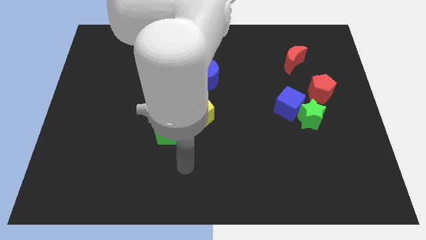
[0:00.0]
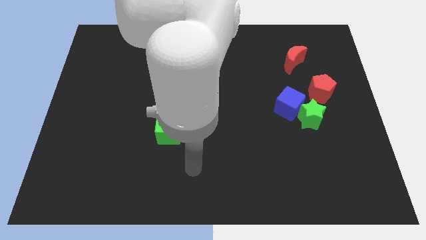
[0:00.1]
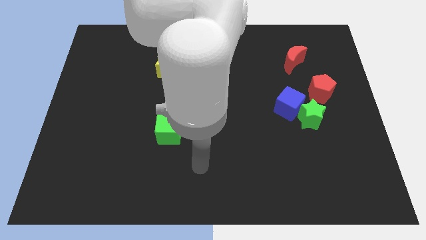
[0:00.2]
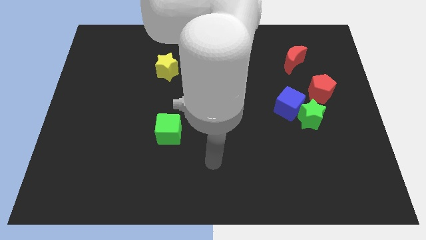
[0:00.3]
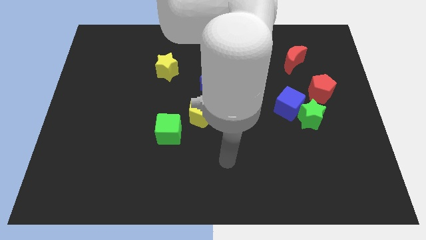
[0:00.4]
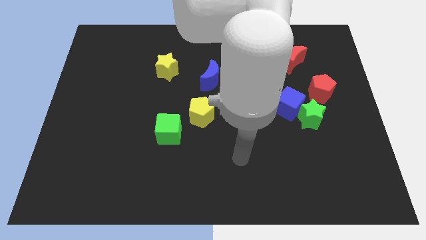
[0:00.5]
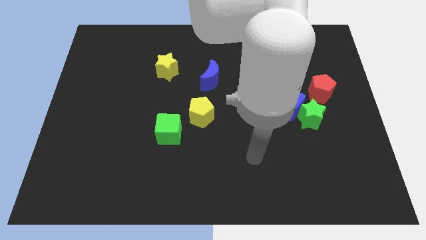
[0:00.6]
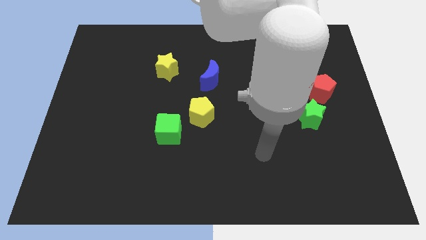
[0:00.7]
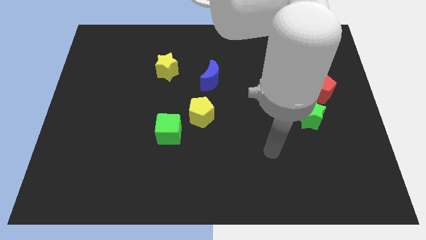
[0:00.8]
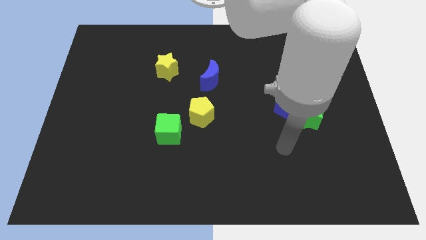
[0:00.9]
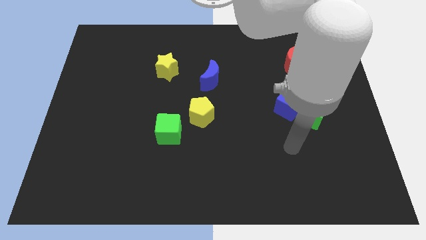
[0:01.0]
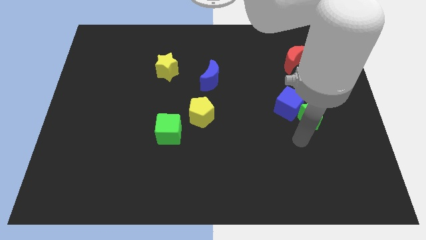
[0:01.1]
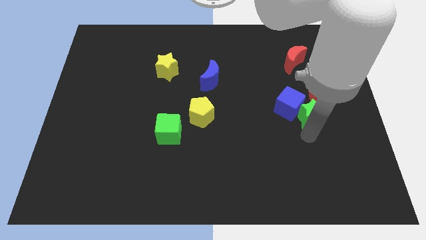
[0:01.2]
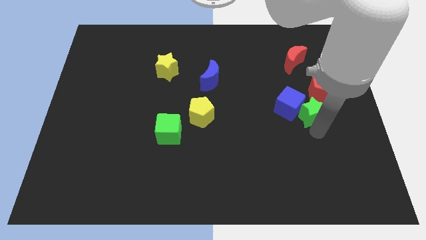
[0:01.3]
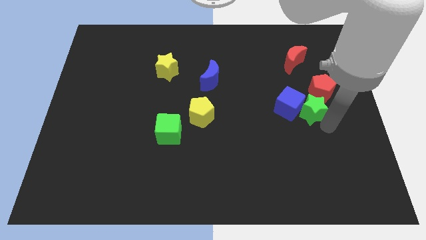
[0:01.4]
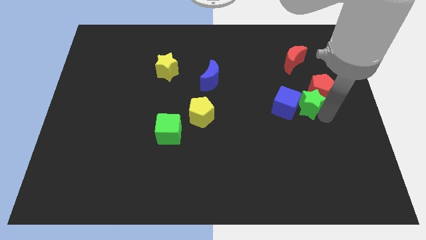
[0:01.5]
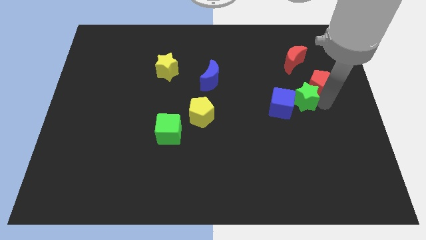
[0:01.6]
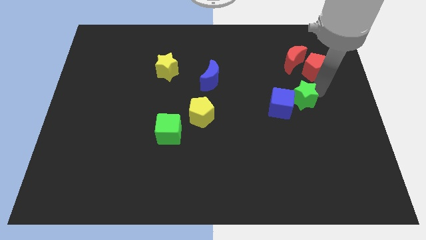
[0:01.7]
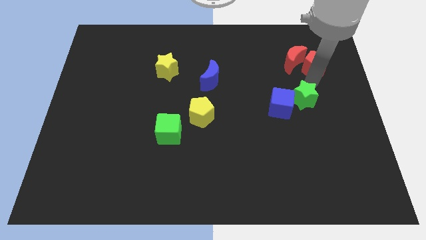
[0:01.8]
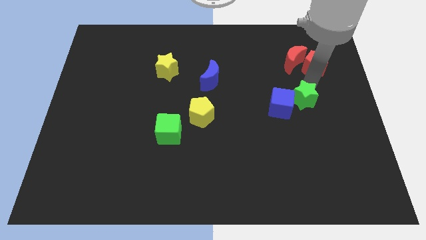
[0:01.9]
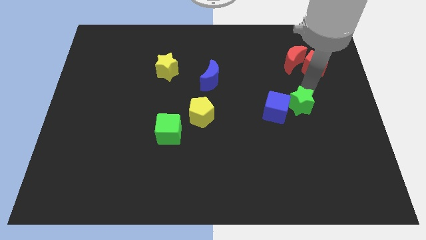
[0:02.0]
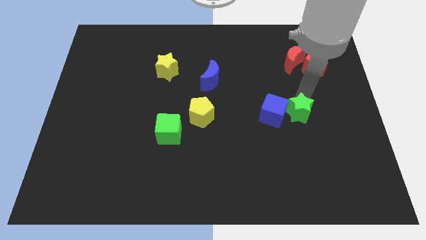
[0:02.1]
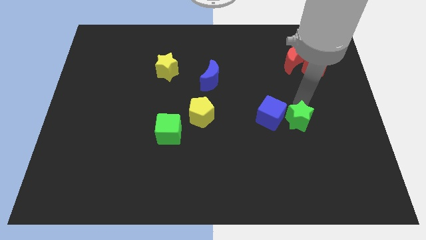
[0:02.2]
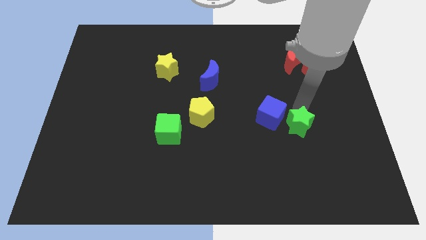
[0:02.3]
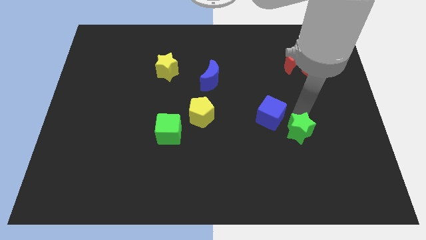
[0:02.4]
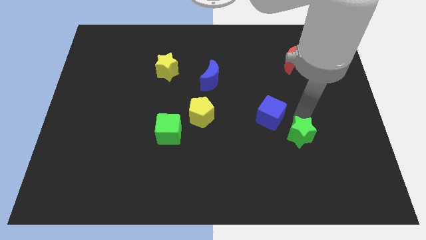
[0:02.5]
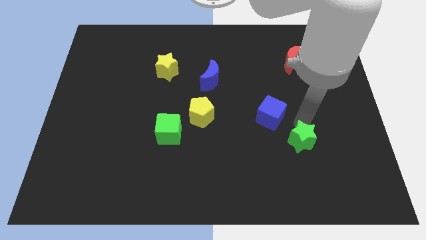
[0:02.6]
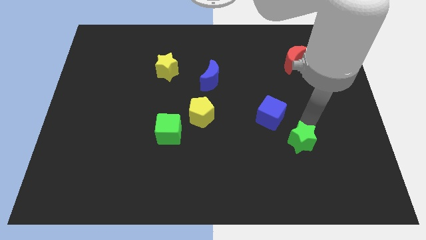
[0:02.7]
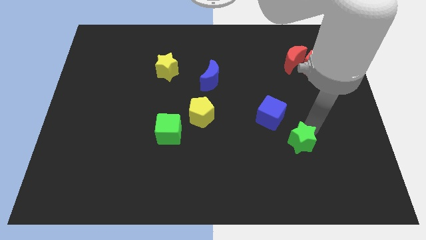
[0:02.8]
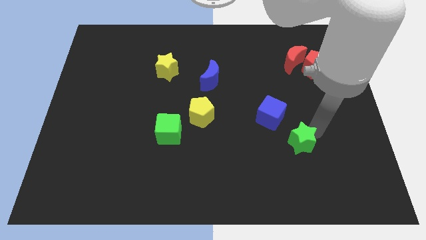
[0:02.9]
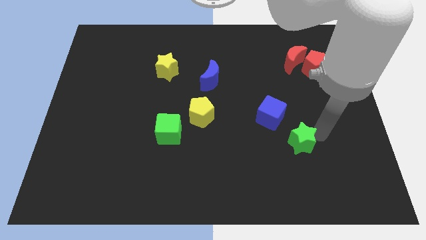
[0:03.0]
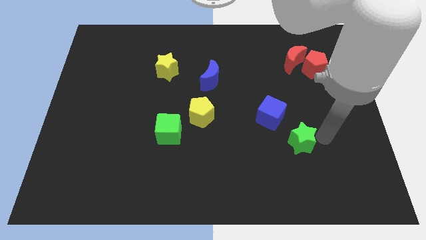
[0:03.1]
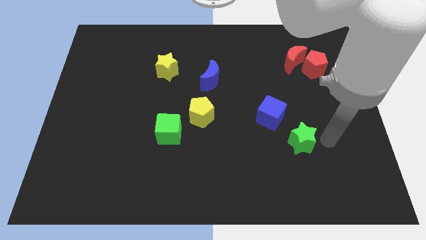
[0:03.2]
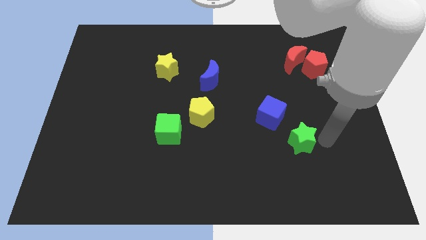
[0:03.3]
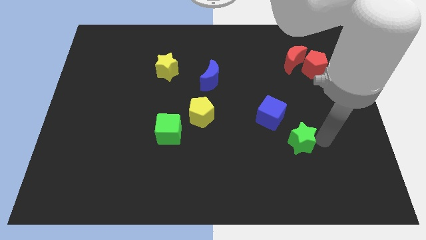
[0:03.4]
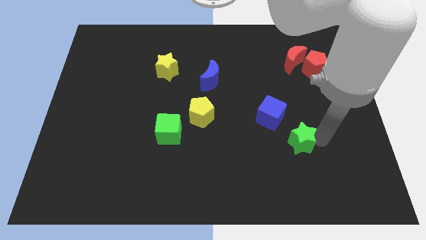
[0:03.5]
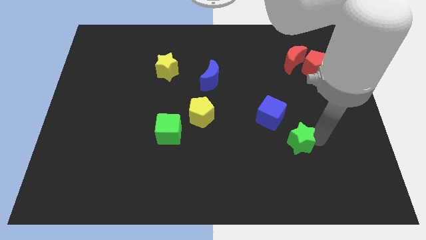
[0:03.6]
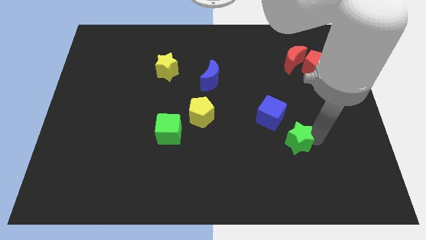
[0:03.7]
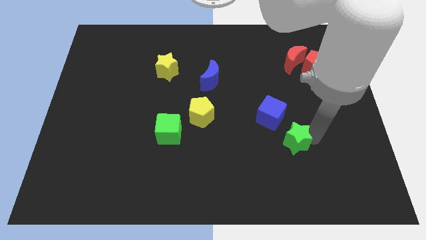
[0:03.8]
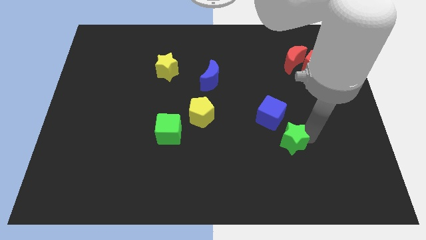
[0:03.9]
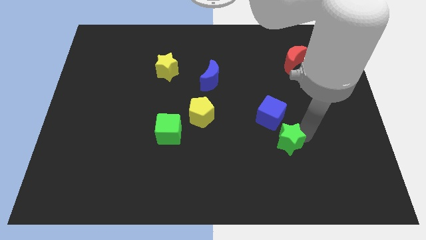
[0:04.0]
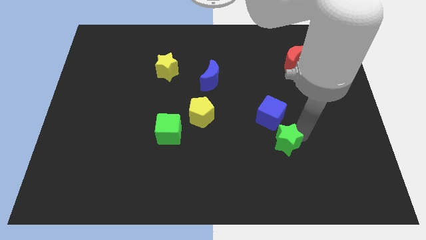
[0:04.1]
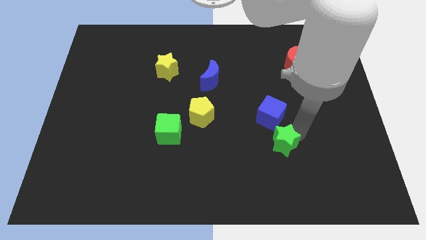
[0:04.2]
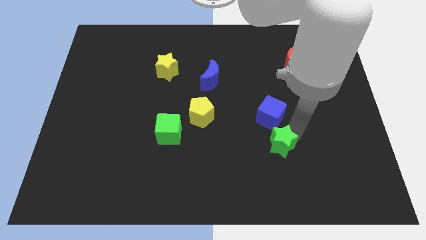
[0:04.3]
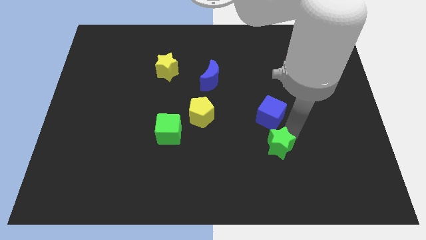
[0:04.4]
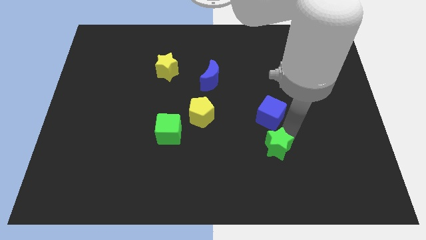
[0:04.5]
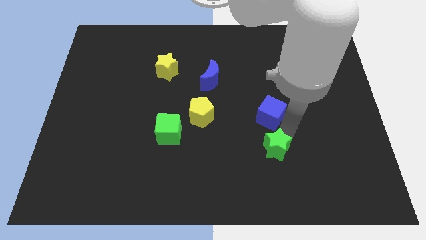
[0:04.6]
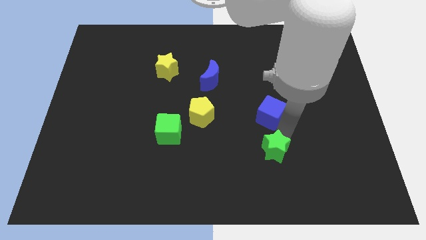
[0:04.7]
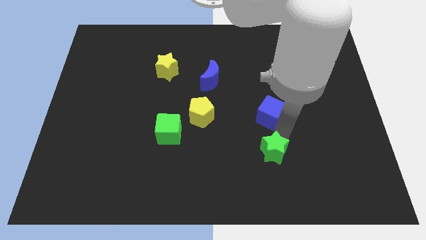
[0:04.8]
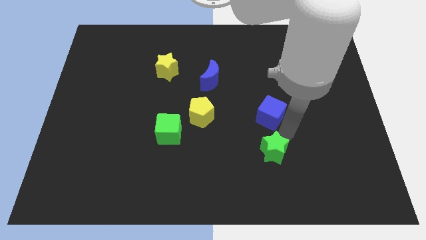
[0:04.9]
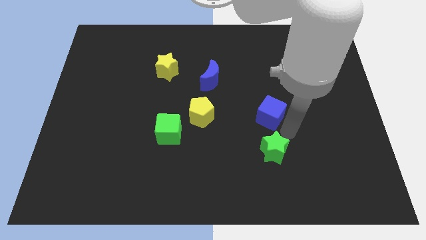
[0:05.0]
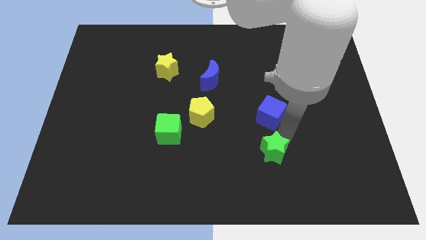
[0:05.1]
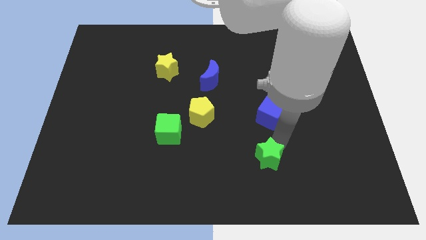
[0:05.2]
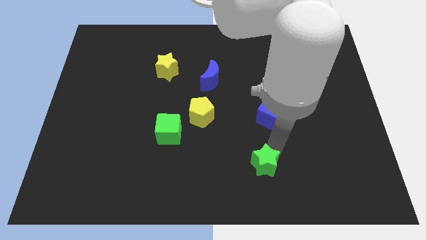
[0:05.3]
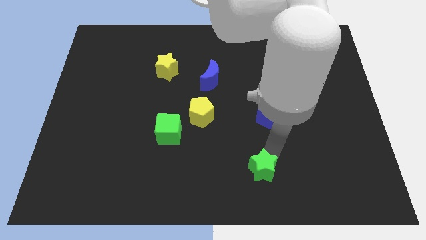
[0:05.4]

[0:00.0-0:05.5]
move the green star to the bottom
